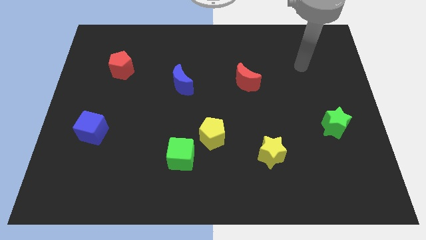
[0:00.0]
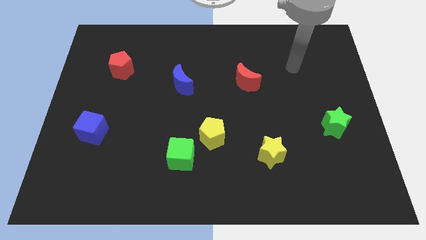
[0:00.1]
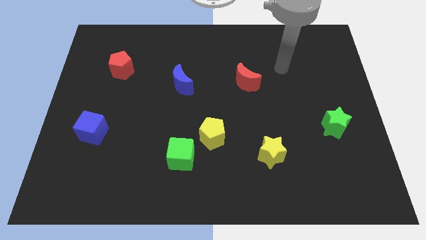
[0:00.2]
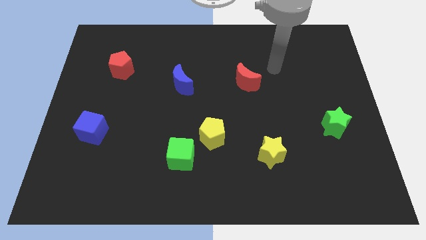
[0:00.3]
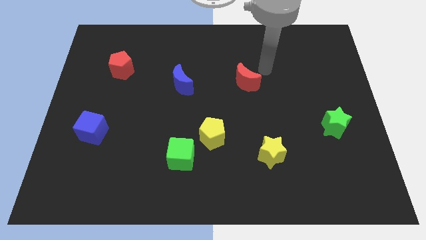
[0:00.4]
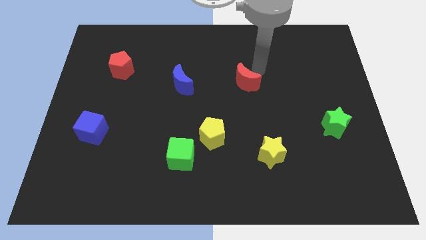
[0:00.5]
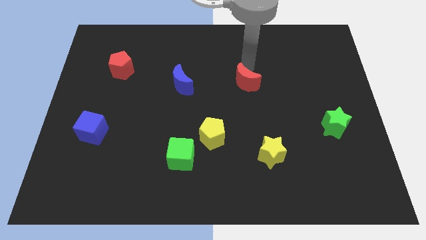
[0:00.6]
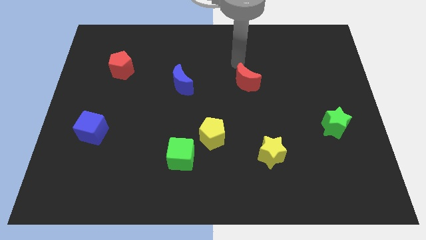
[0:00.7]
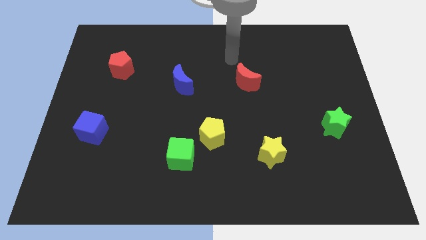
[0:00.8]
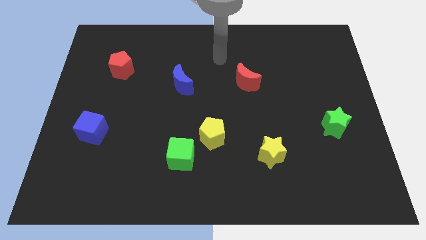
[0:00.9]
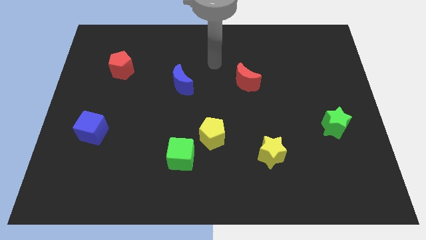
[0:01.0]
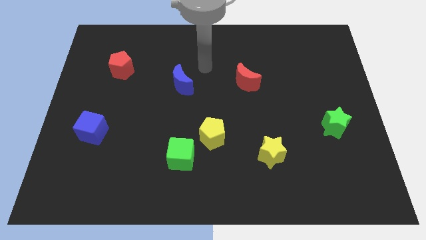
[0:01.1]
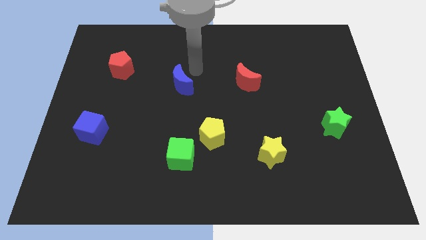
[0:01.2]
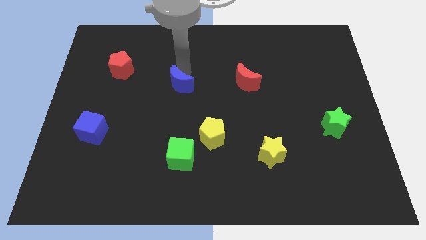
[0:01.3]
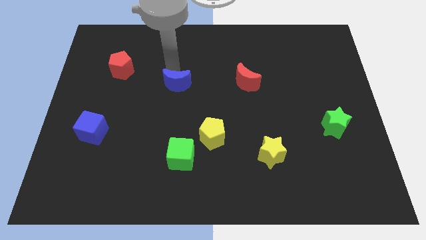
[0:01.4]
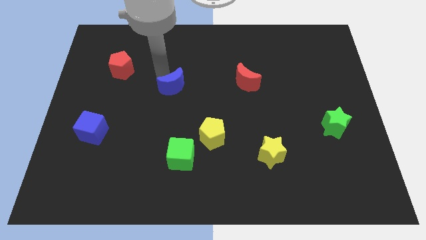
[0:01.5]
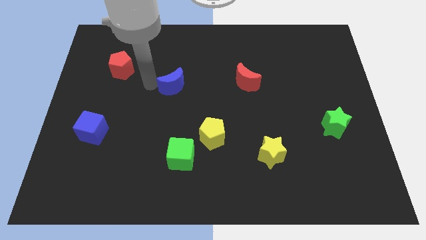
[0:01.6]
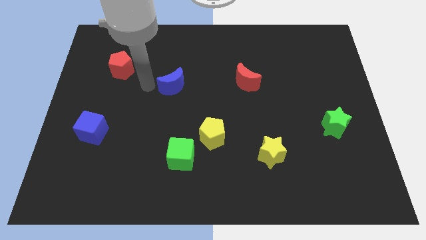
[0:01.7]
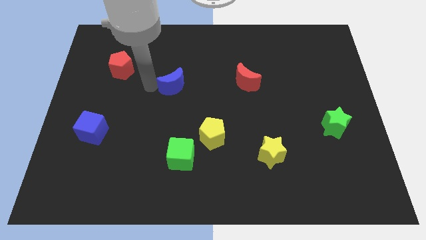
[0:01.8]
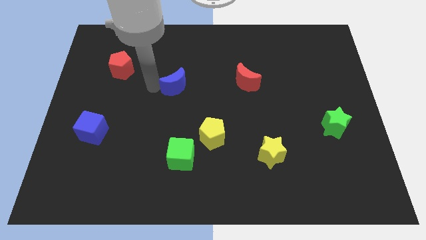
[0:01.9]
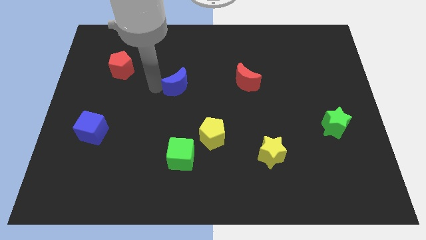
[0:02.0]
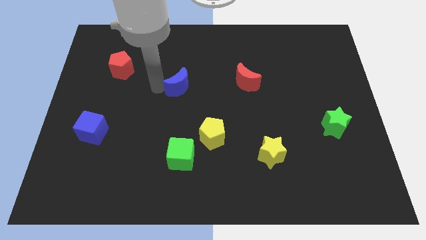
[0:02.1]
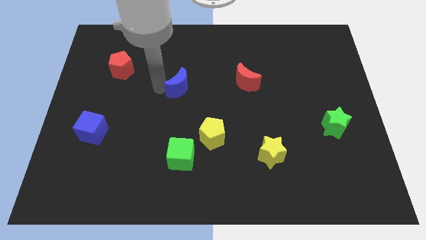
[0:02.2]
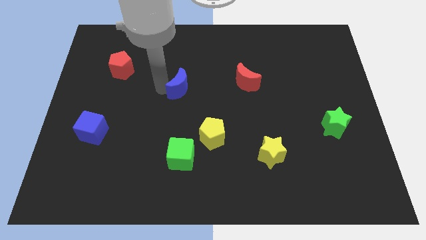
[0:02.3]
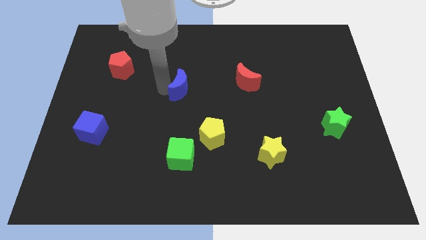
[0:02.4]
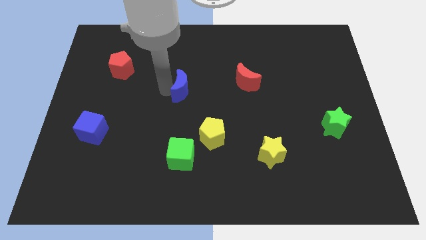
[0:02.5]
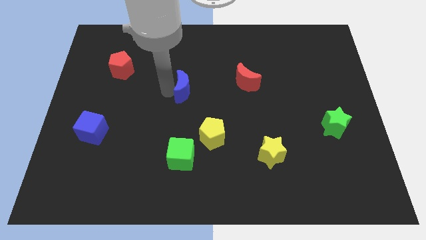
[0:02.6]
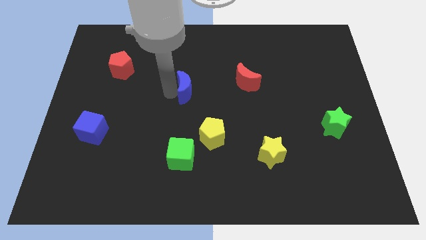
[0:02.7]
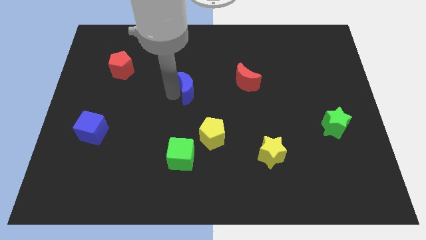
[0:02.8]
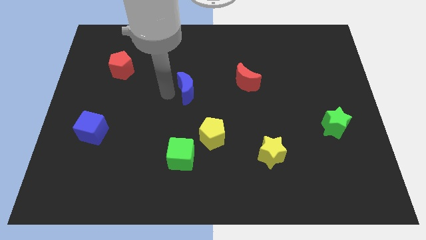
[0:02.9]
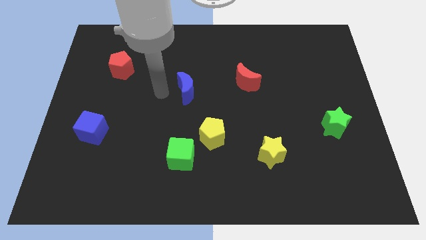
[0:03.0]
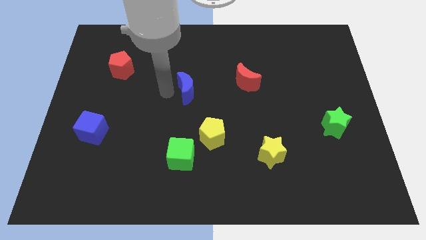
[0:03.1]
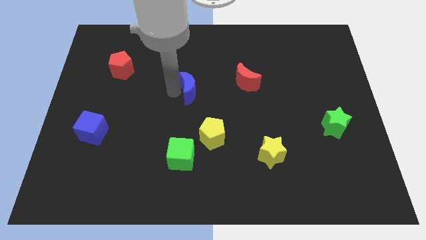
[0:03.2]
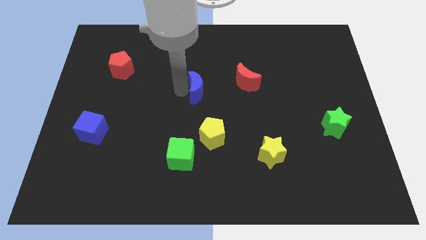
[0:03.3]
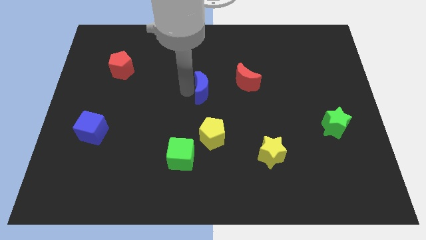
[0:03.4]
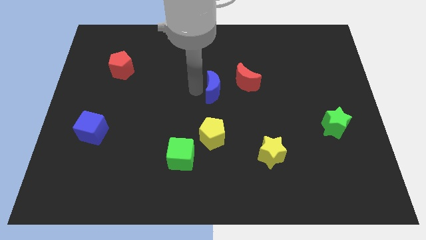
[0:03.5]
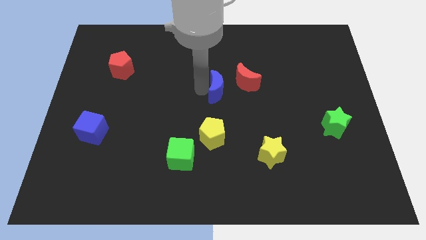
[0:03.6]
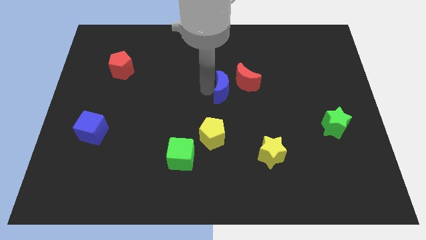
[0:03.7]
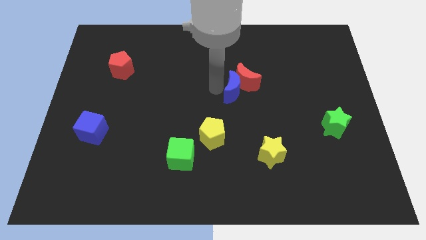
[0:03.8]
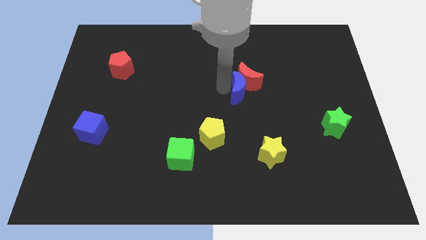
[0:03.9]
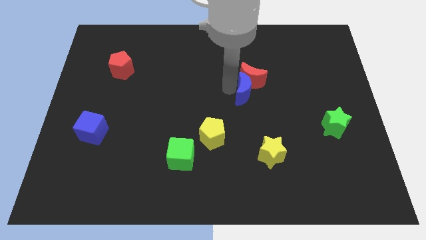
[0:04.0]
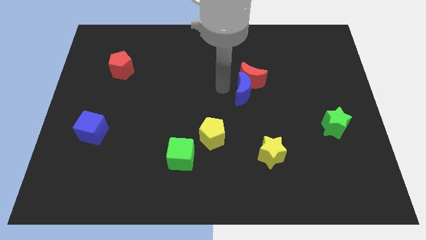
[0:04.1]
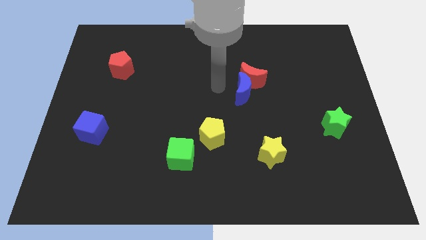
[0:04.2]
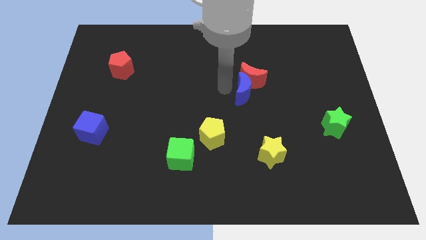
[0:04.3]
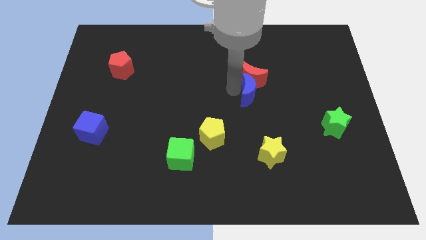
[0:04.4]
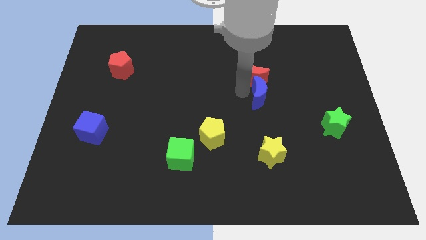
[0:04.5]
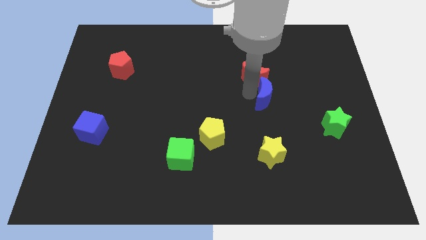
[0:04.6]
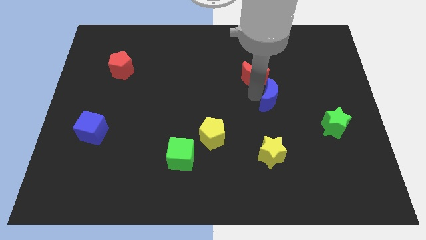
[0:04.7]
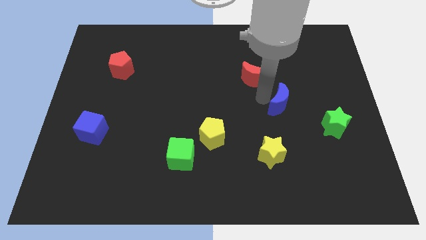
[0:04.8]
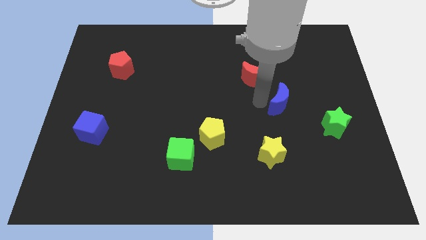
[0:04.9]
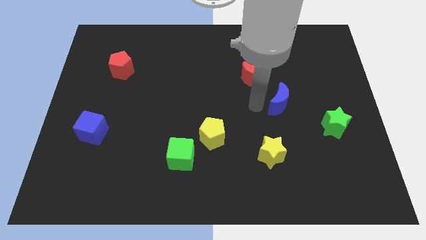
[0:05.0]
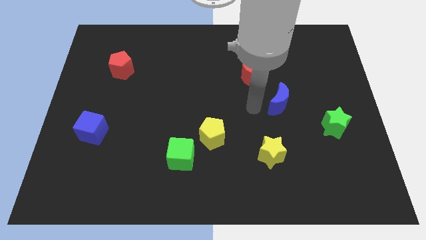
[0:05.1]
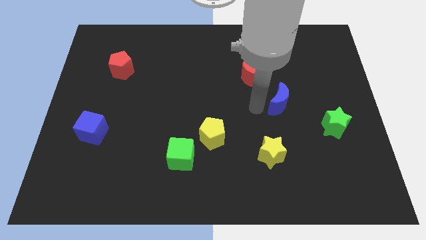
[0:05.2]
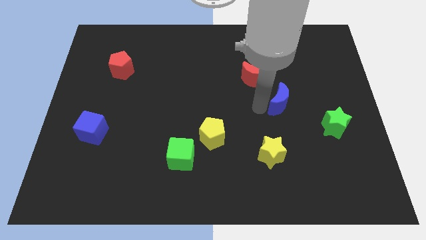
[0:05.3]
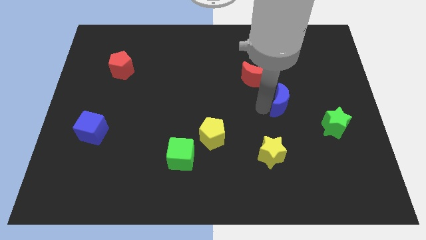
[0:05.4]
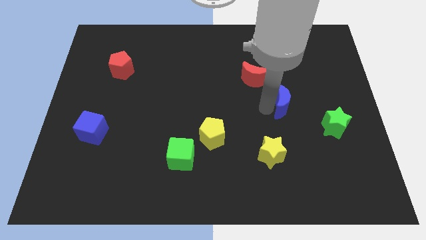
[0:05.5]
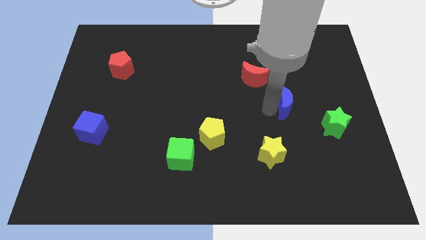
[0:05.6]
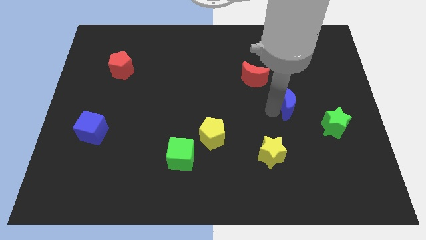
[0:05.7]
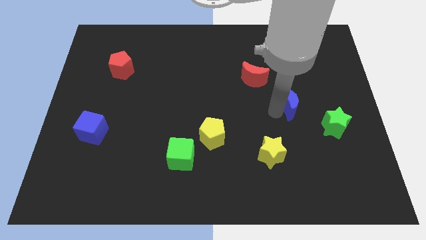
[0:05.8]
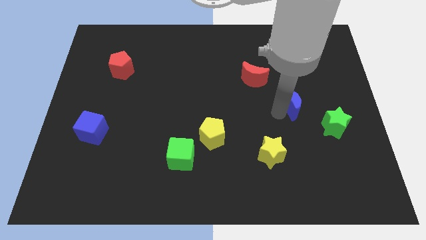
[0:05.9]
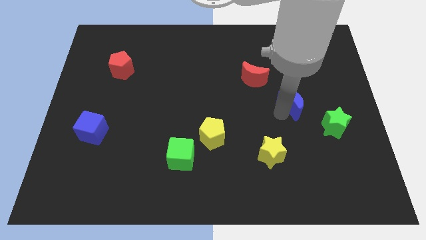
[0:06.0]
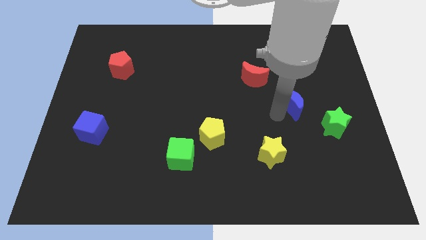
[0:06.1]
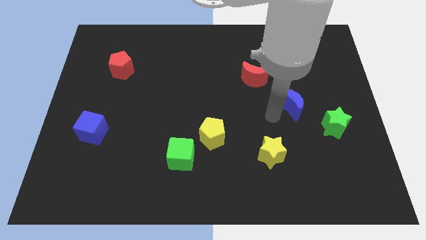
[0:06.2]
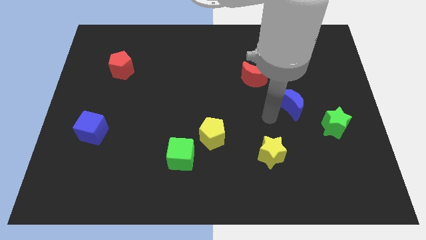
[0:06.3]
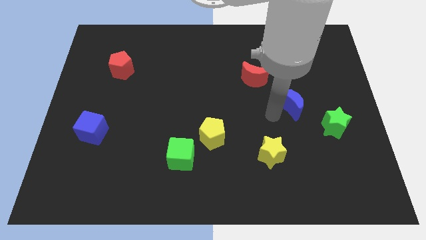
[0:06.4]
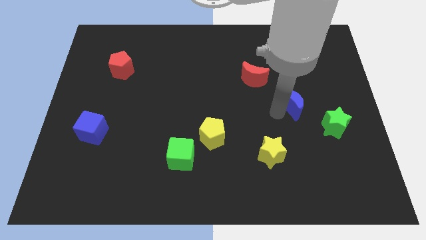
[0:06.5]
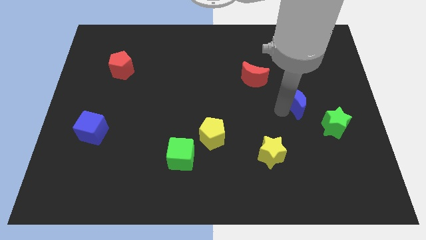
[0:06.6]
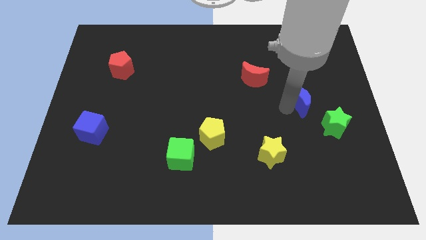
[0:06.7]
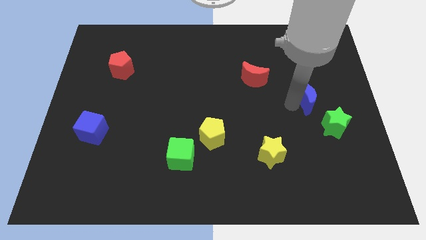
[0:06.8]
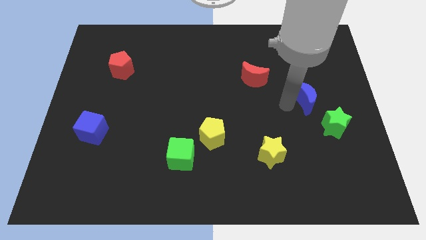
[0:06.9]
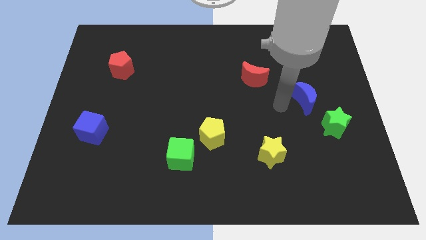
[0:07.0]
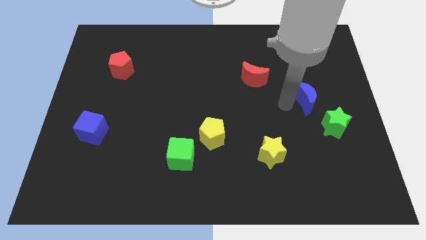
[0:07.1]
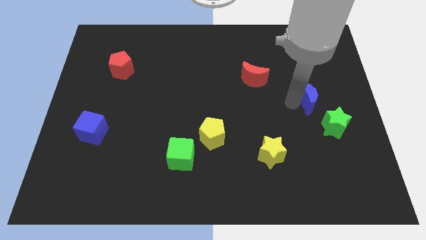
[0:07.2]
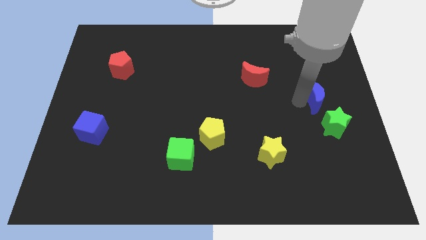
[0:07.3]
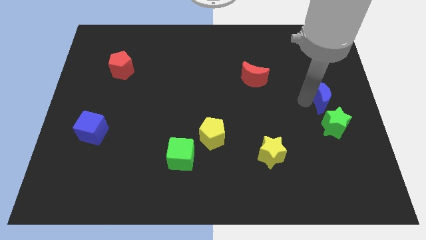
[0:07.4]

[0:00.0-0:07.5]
put the blue moon to the center right
